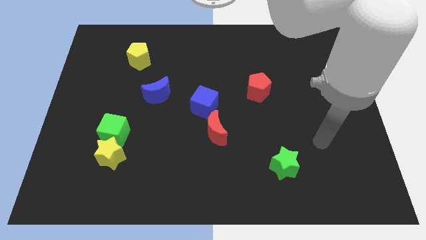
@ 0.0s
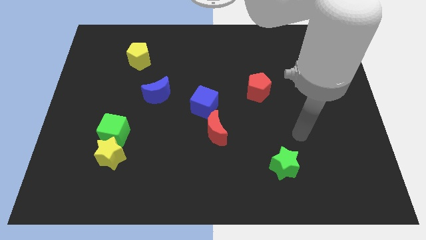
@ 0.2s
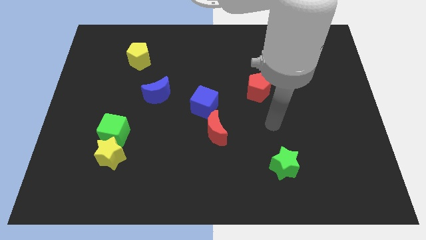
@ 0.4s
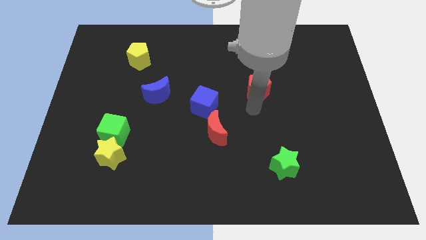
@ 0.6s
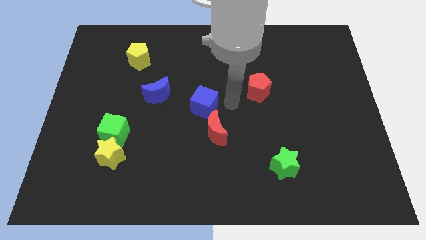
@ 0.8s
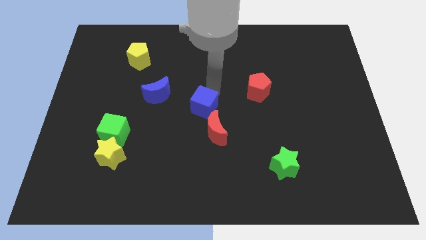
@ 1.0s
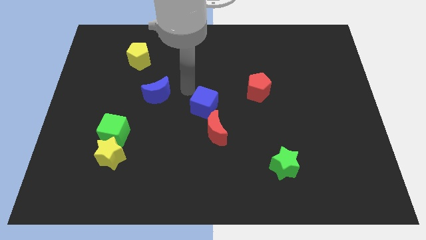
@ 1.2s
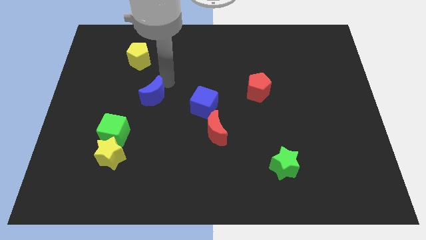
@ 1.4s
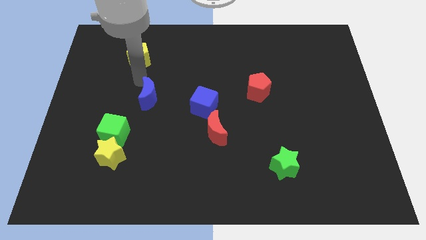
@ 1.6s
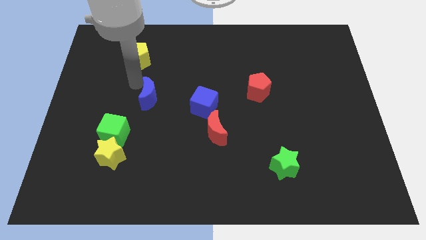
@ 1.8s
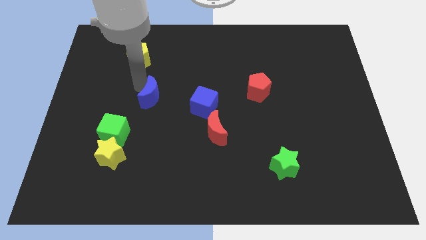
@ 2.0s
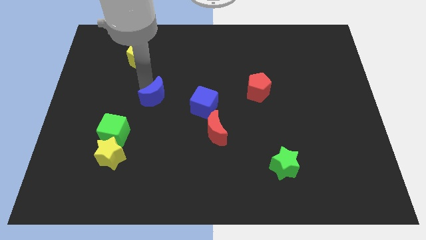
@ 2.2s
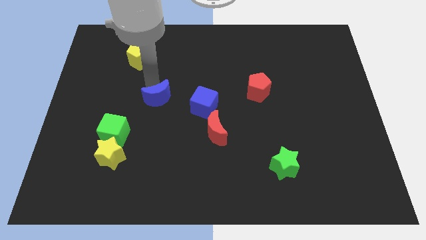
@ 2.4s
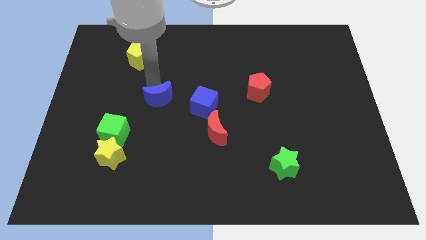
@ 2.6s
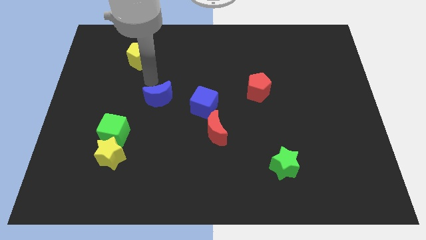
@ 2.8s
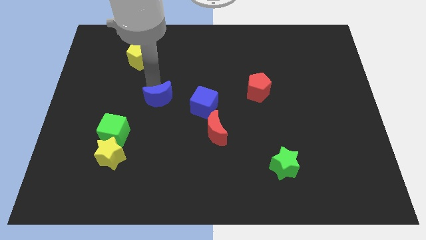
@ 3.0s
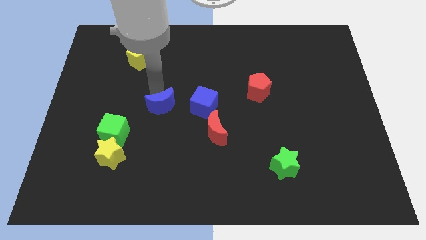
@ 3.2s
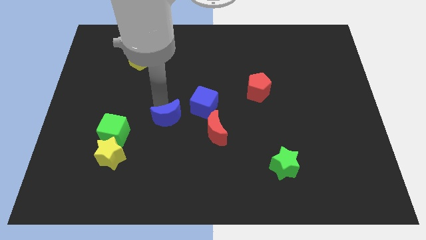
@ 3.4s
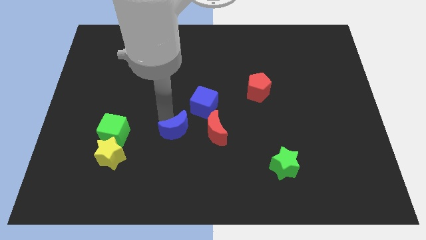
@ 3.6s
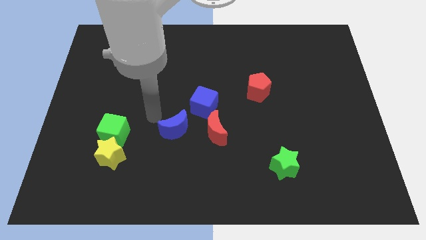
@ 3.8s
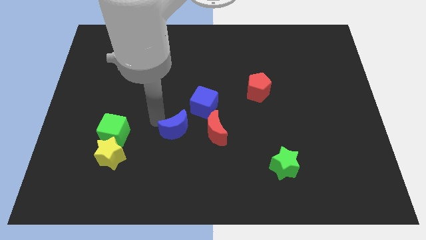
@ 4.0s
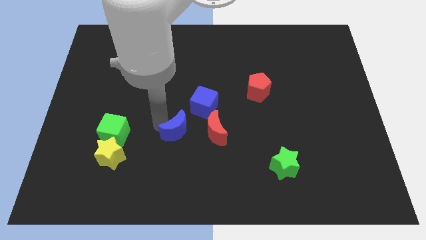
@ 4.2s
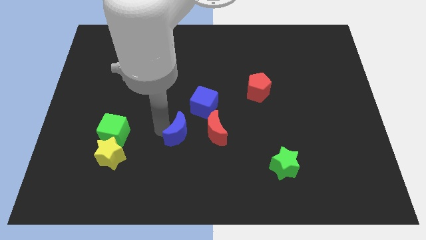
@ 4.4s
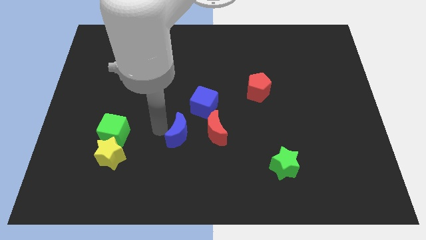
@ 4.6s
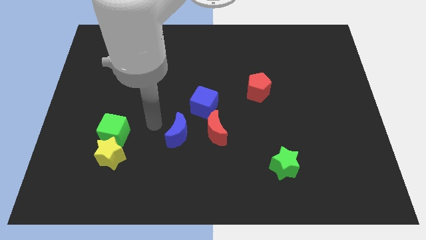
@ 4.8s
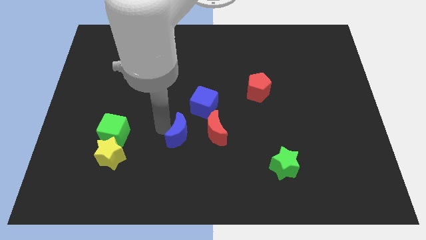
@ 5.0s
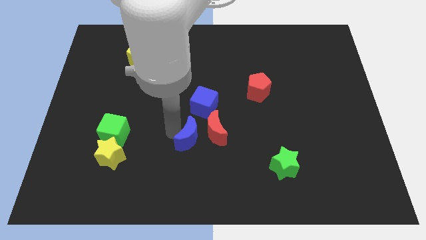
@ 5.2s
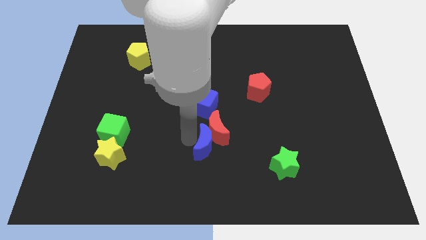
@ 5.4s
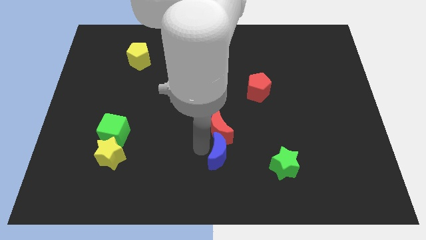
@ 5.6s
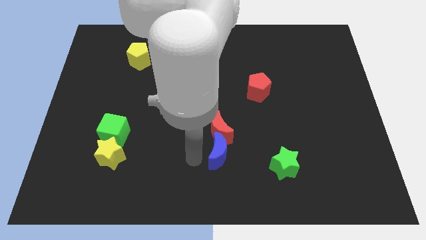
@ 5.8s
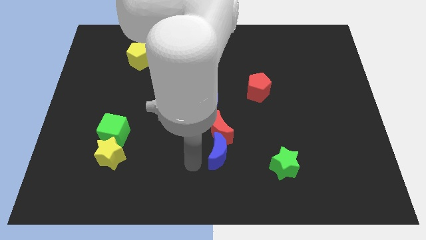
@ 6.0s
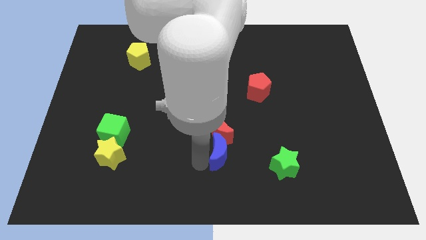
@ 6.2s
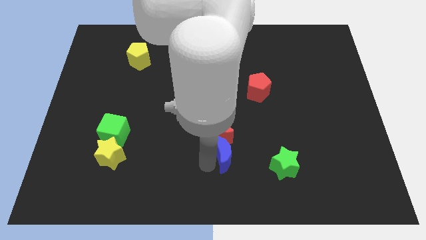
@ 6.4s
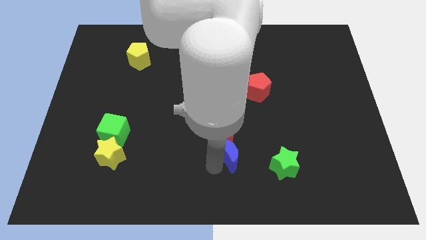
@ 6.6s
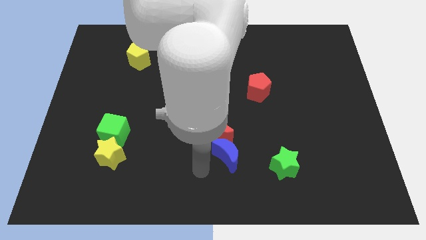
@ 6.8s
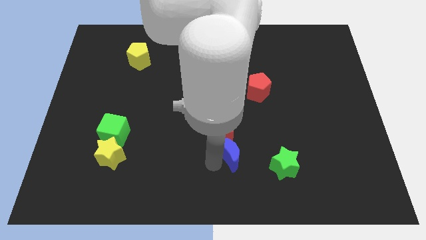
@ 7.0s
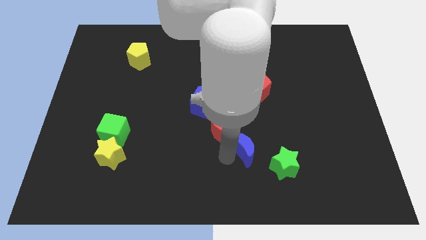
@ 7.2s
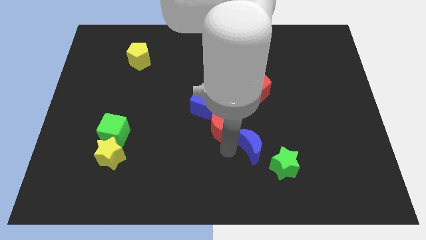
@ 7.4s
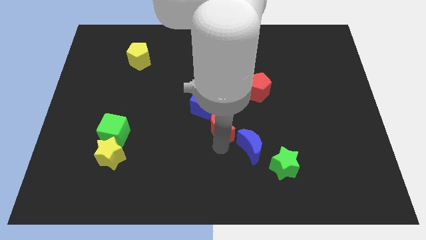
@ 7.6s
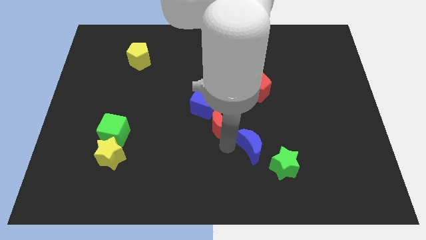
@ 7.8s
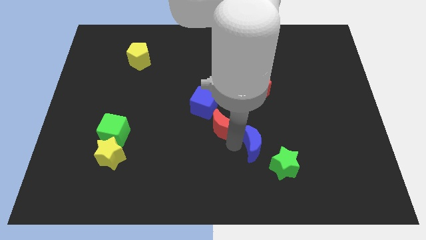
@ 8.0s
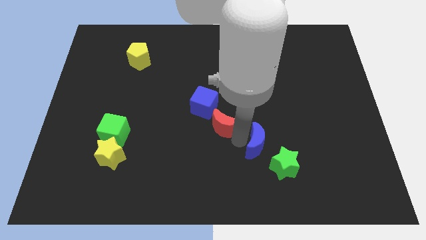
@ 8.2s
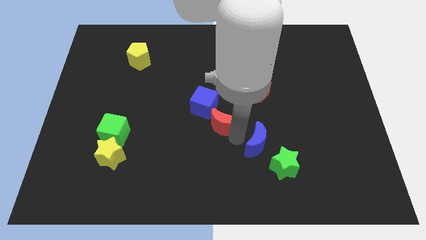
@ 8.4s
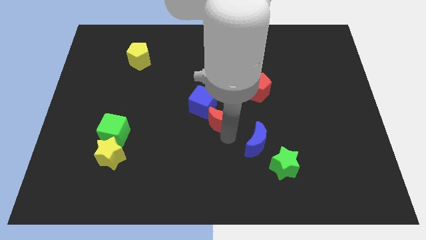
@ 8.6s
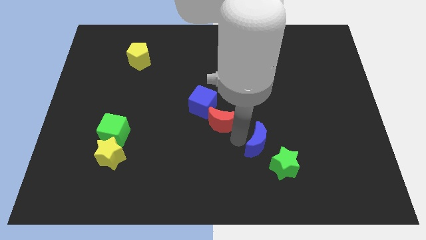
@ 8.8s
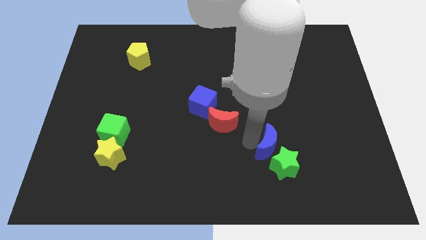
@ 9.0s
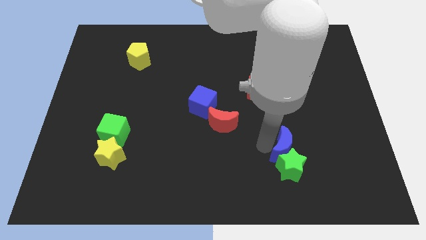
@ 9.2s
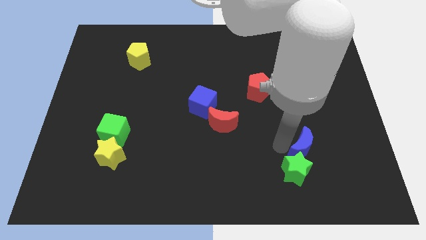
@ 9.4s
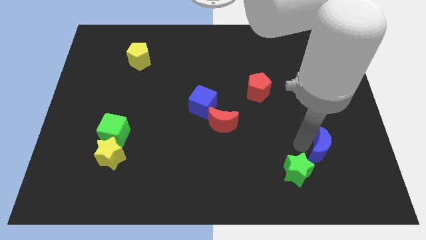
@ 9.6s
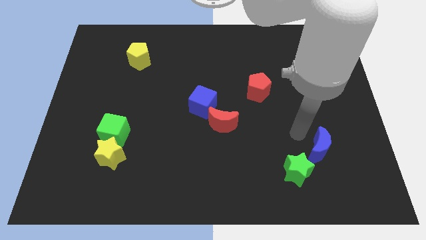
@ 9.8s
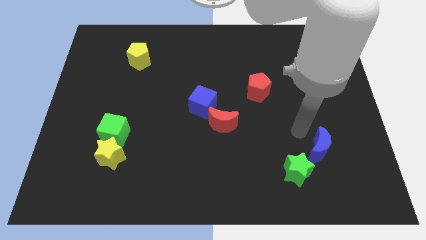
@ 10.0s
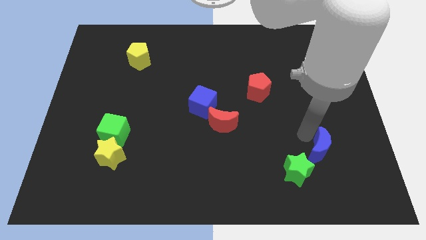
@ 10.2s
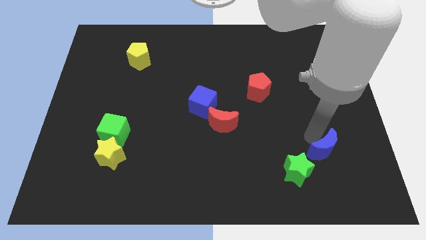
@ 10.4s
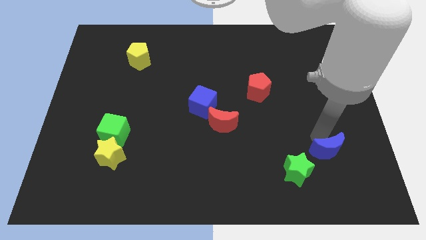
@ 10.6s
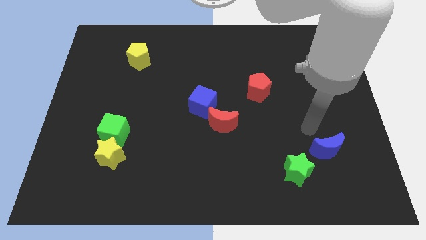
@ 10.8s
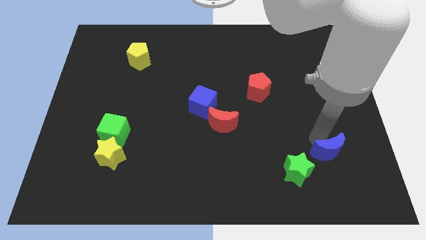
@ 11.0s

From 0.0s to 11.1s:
push the blue moon to the right side of the green star

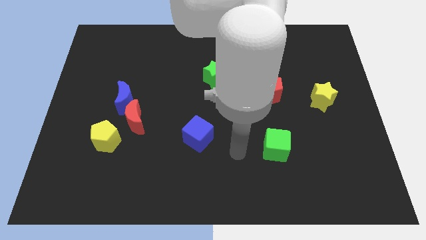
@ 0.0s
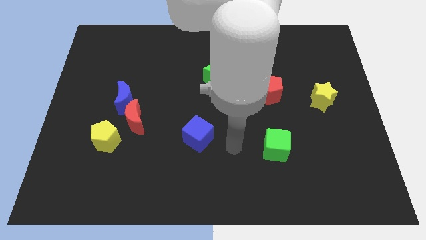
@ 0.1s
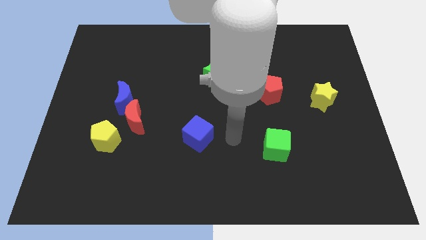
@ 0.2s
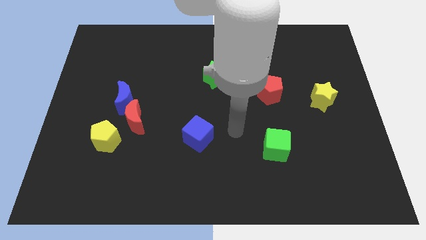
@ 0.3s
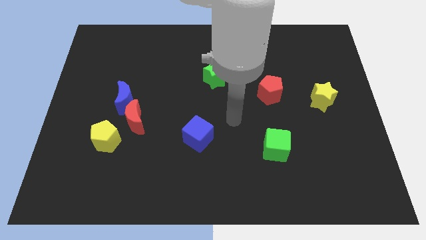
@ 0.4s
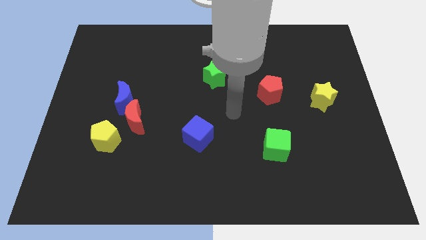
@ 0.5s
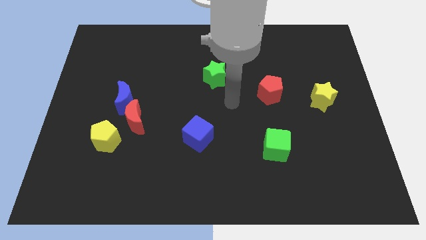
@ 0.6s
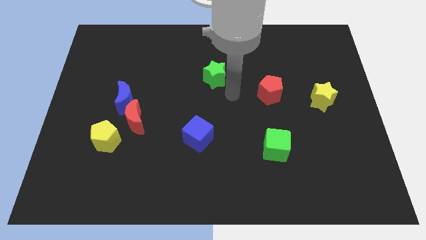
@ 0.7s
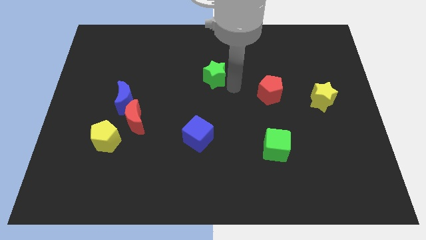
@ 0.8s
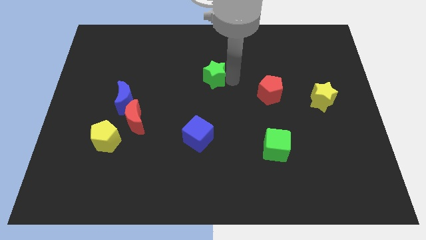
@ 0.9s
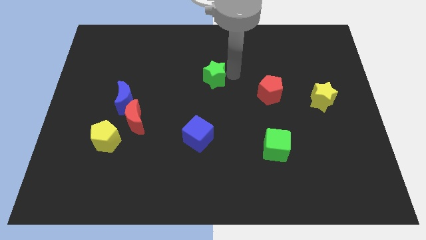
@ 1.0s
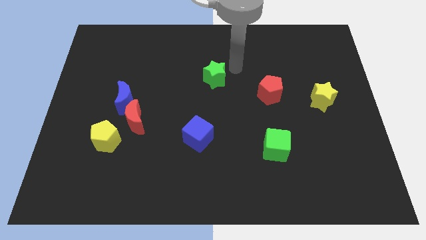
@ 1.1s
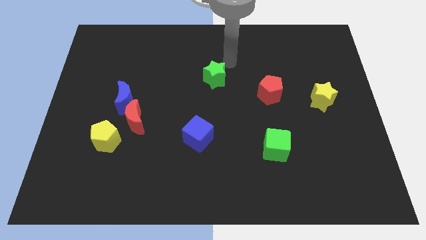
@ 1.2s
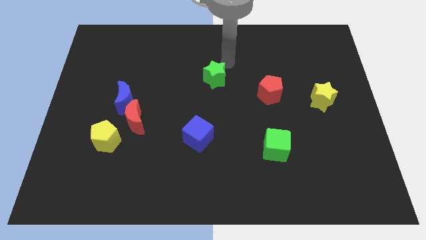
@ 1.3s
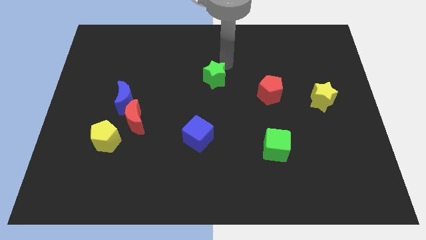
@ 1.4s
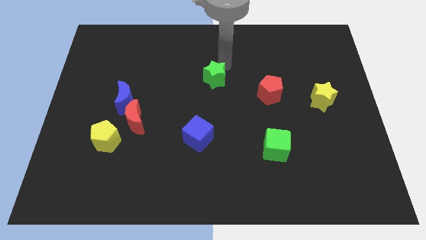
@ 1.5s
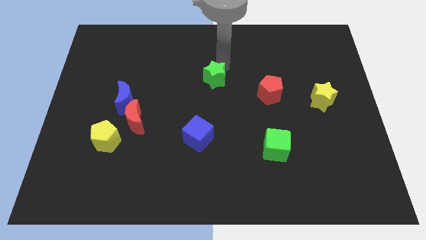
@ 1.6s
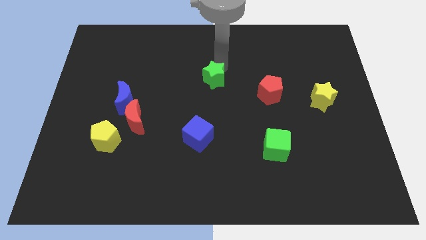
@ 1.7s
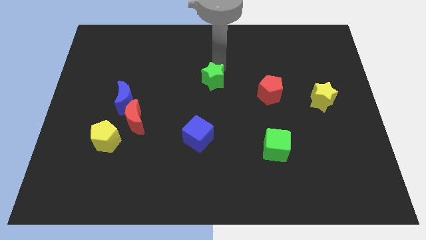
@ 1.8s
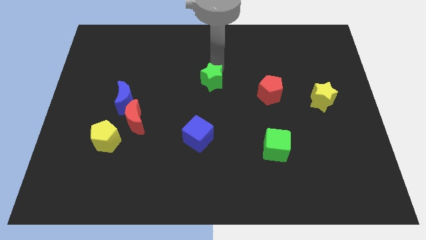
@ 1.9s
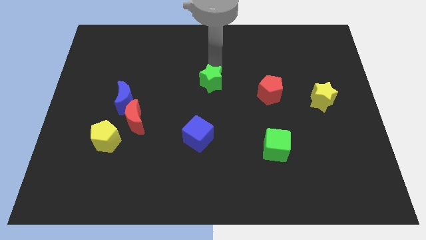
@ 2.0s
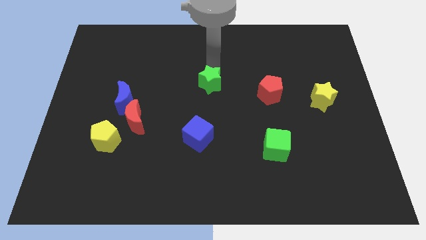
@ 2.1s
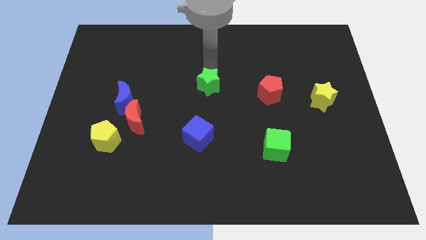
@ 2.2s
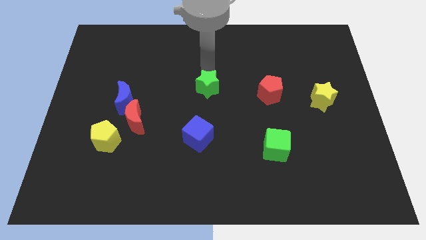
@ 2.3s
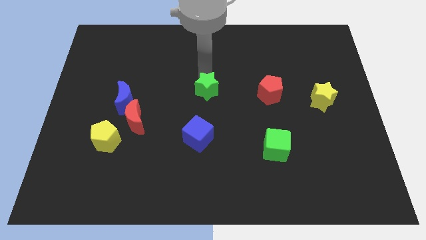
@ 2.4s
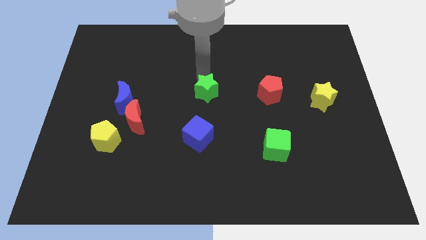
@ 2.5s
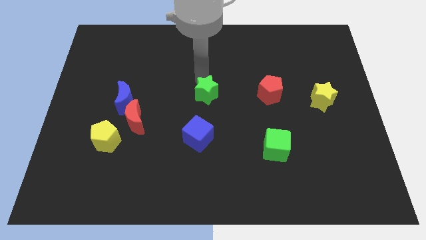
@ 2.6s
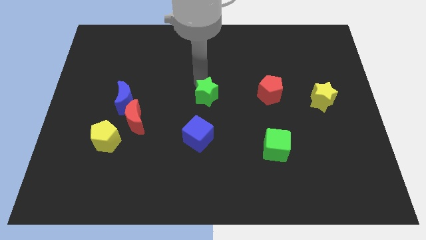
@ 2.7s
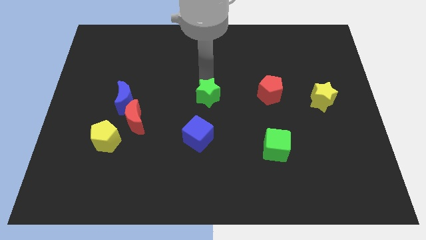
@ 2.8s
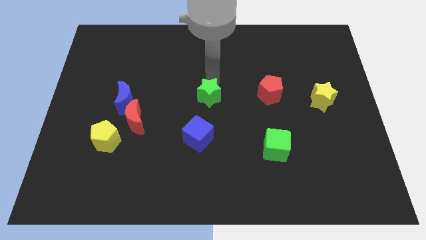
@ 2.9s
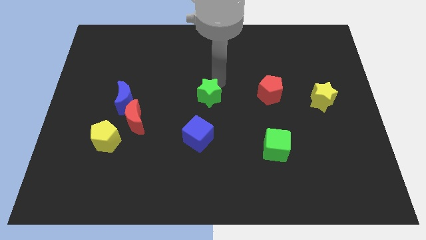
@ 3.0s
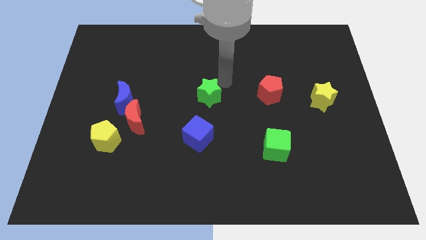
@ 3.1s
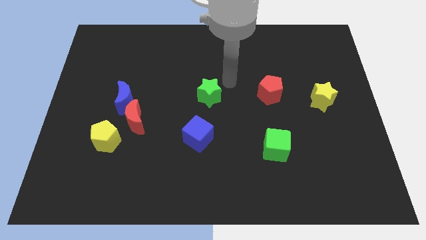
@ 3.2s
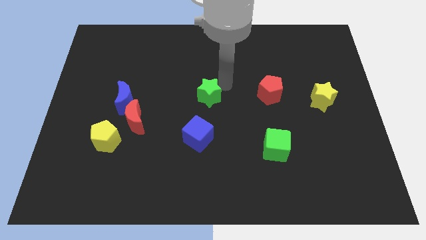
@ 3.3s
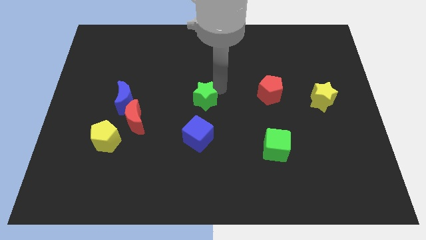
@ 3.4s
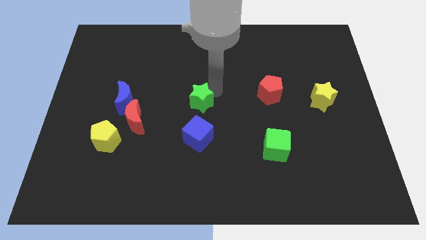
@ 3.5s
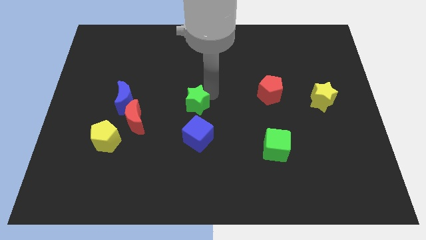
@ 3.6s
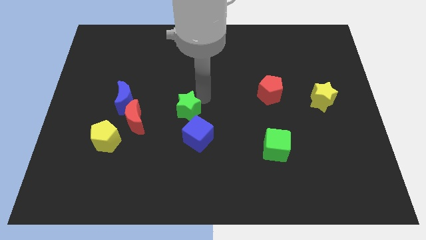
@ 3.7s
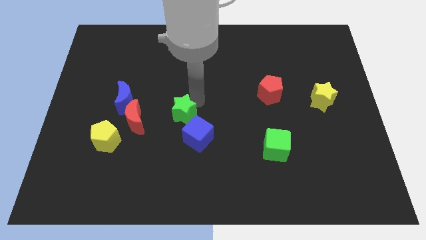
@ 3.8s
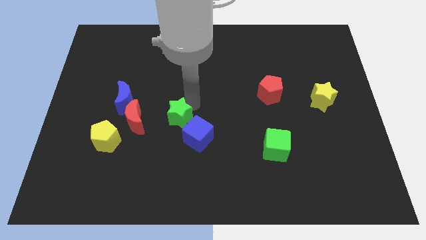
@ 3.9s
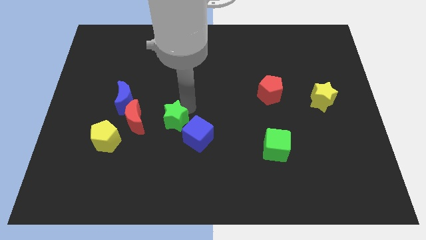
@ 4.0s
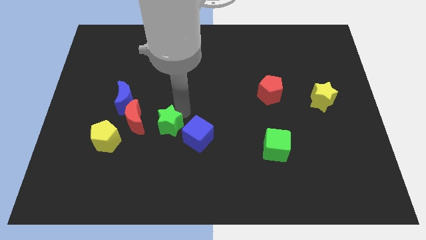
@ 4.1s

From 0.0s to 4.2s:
push the green star to the right side of the yellow pentagon
